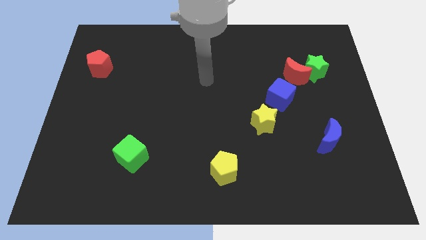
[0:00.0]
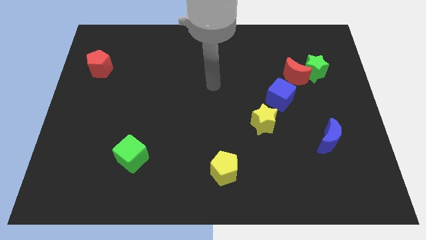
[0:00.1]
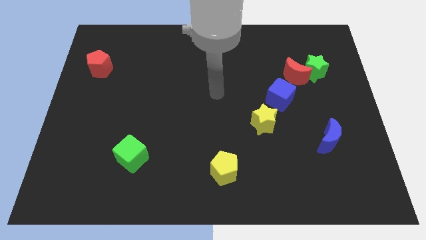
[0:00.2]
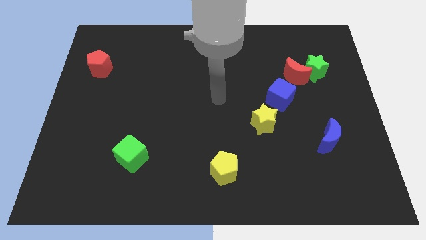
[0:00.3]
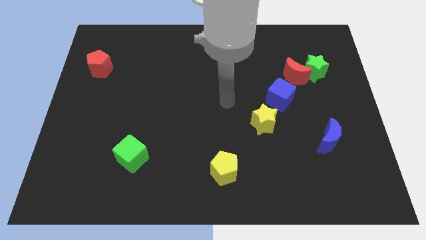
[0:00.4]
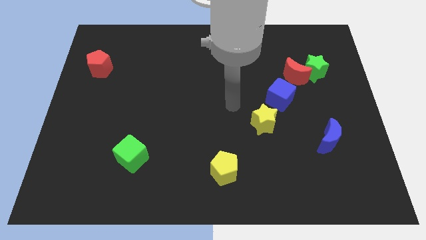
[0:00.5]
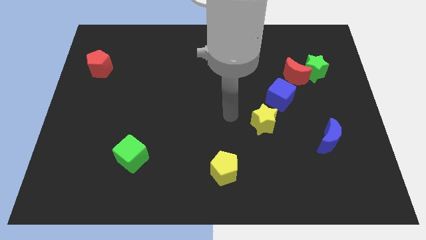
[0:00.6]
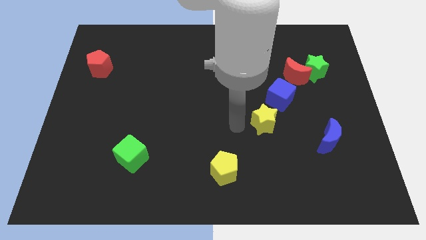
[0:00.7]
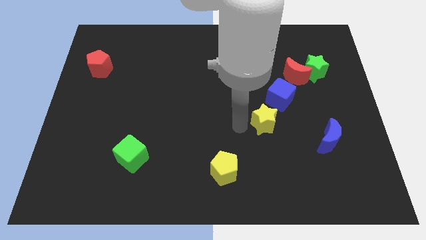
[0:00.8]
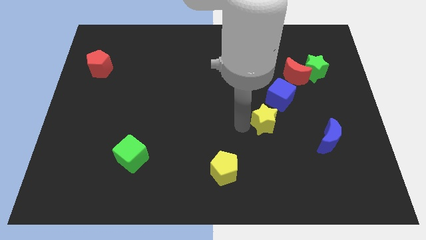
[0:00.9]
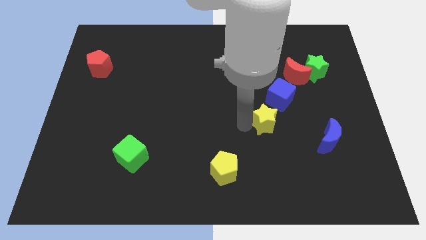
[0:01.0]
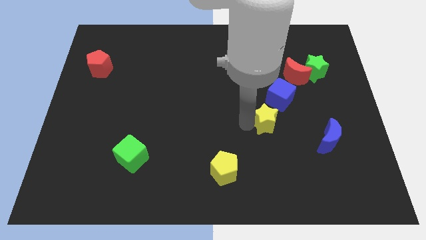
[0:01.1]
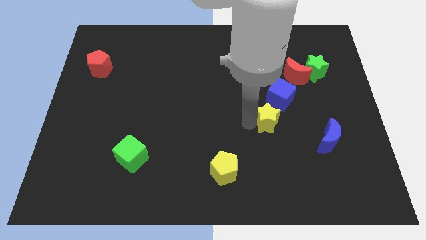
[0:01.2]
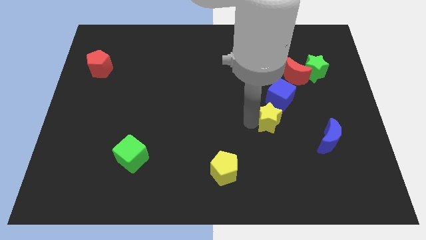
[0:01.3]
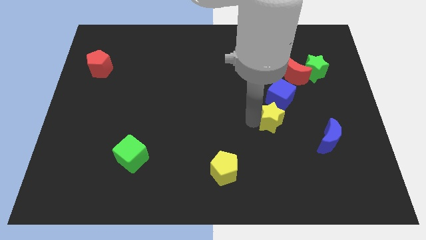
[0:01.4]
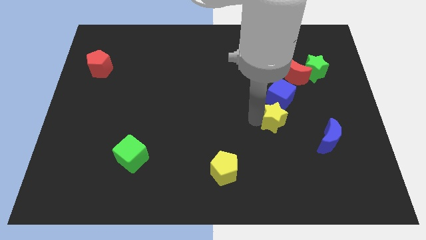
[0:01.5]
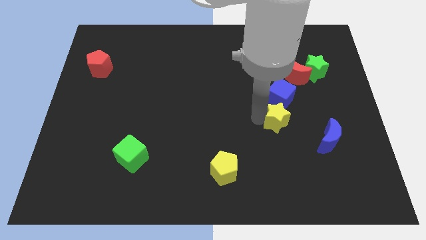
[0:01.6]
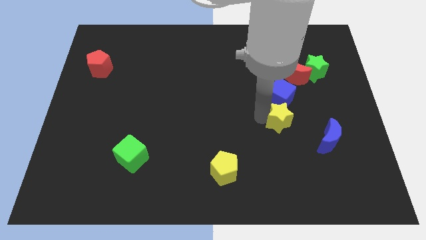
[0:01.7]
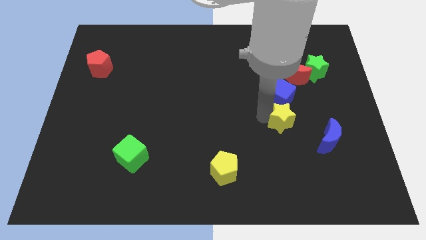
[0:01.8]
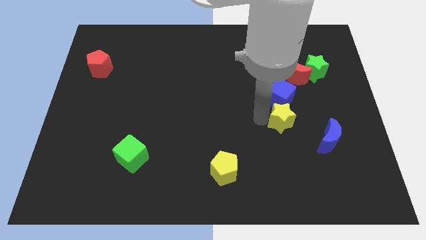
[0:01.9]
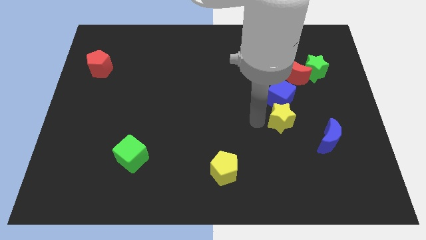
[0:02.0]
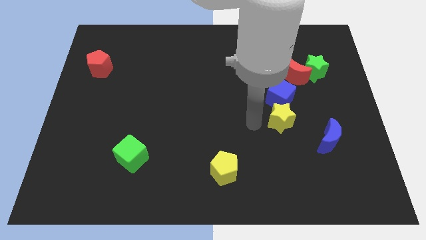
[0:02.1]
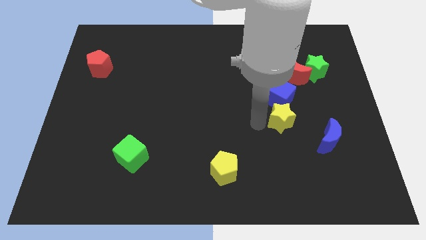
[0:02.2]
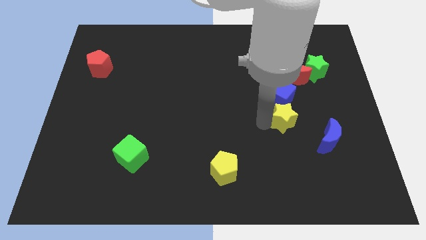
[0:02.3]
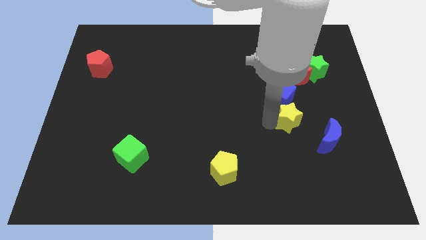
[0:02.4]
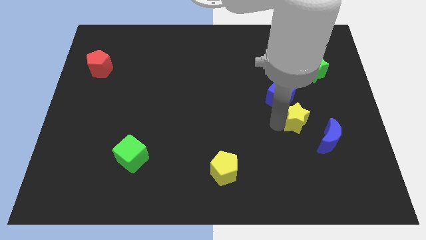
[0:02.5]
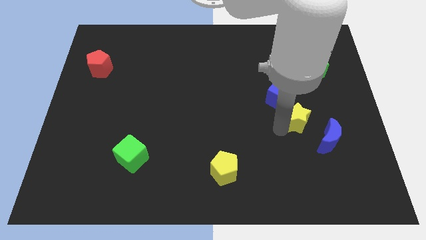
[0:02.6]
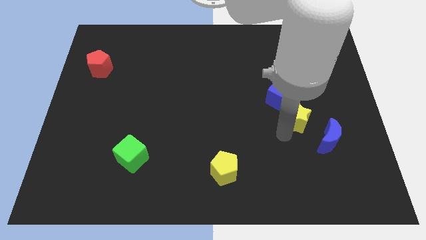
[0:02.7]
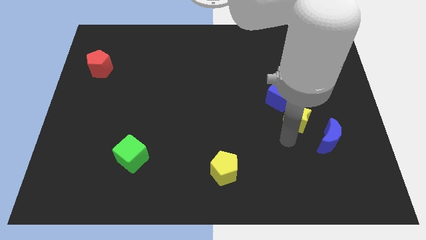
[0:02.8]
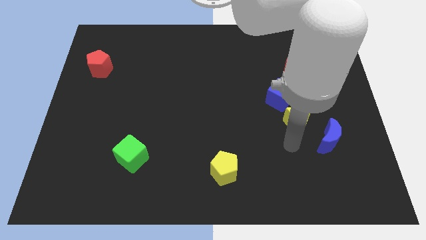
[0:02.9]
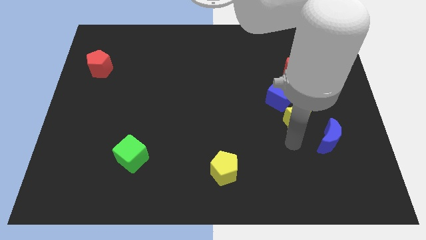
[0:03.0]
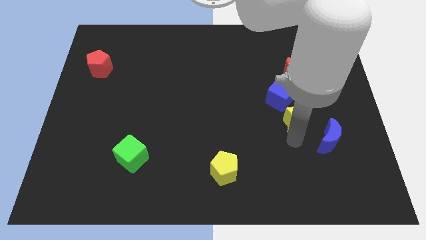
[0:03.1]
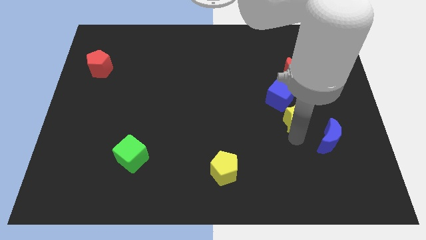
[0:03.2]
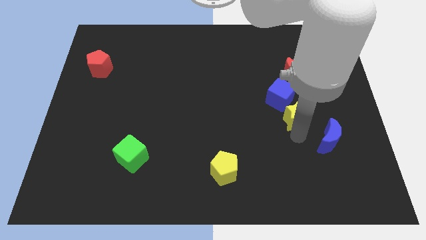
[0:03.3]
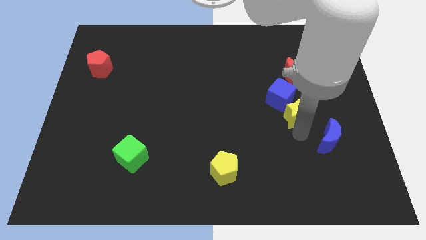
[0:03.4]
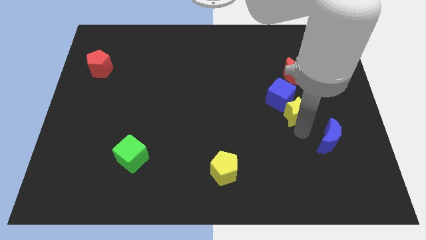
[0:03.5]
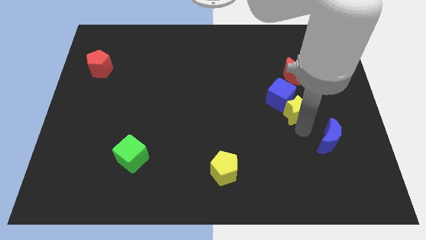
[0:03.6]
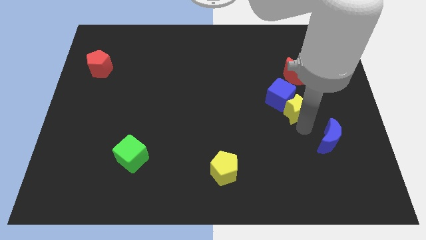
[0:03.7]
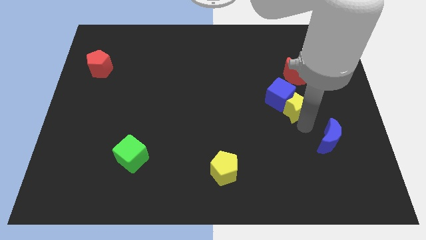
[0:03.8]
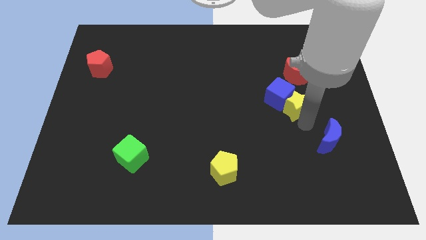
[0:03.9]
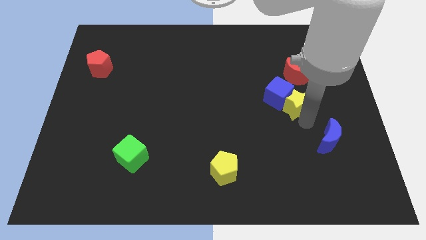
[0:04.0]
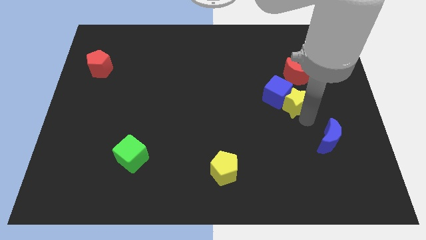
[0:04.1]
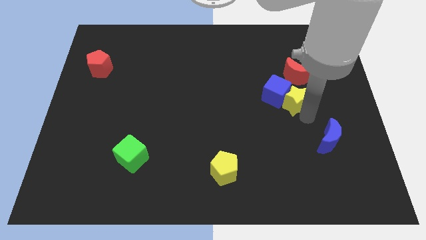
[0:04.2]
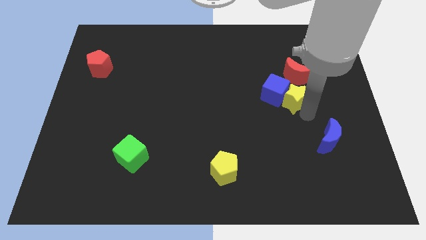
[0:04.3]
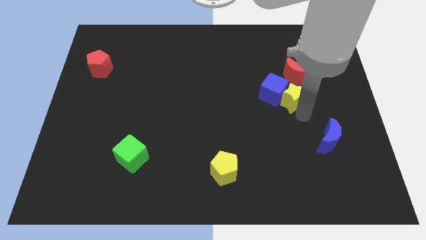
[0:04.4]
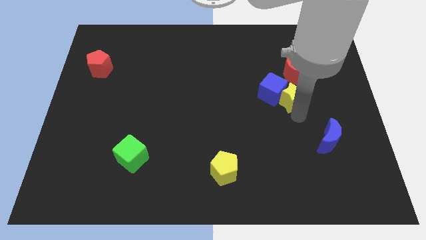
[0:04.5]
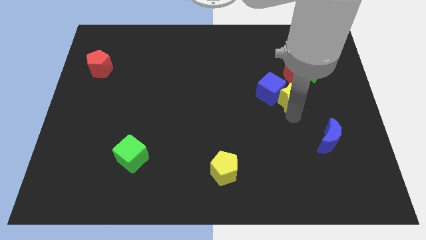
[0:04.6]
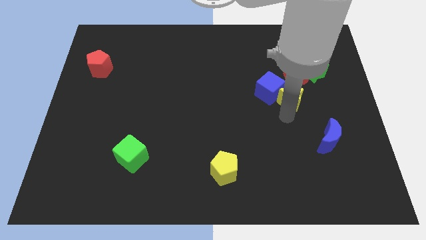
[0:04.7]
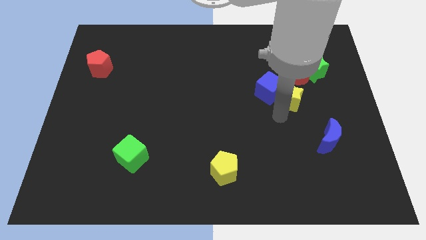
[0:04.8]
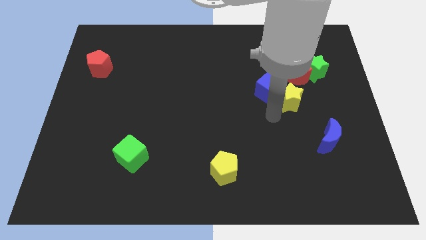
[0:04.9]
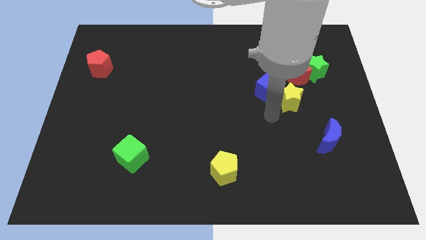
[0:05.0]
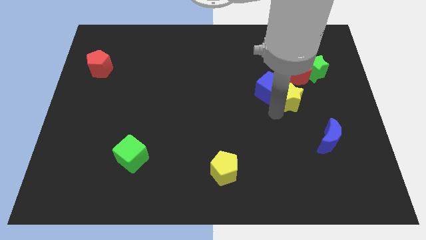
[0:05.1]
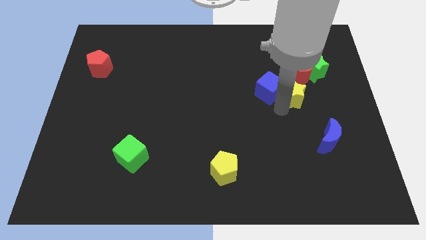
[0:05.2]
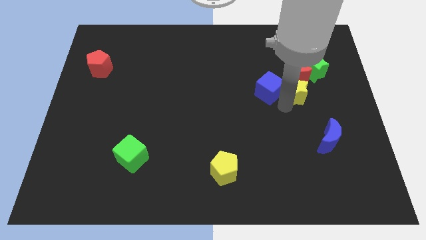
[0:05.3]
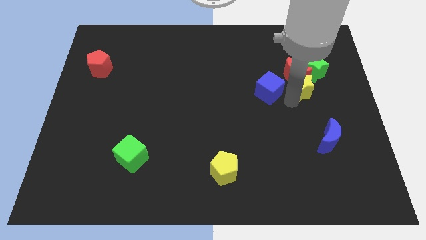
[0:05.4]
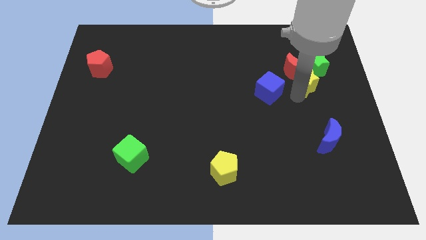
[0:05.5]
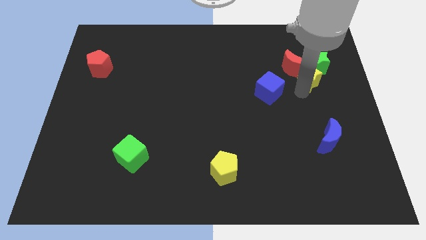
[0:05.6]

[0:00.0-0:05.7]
put the yellow star next to the green star

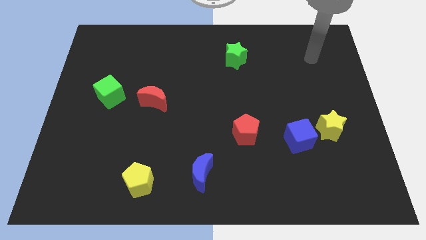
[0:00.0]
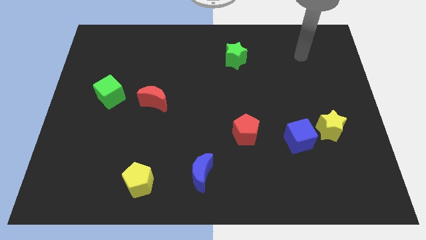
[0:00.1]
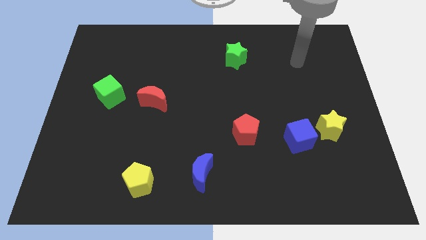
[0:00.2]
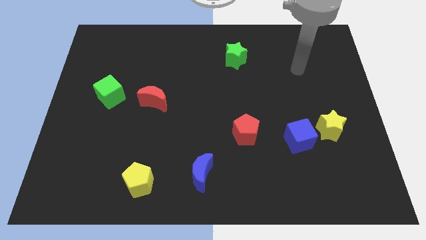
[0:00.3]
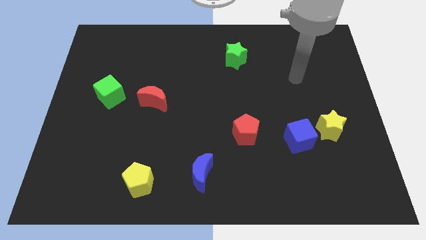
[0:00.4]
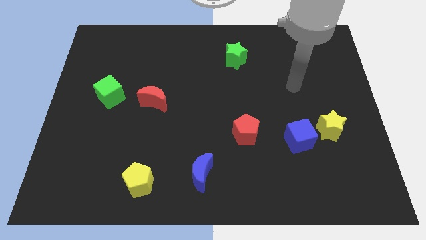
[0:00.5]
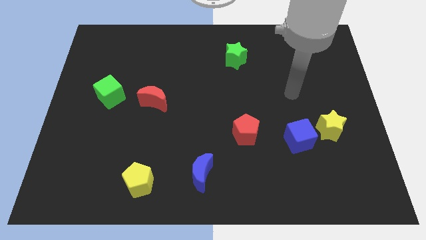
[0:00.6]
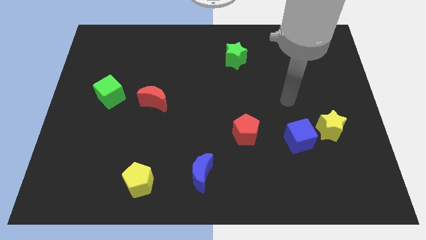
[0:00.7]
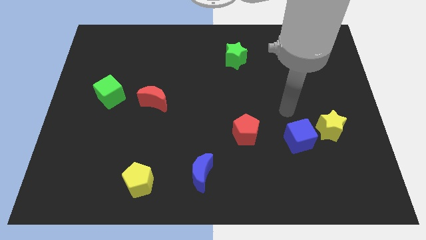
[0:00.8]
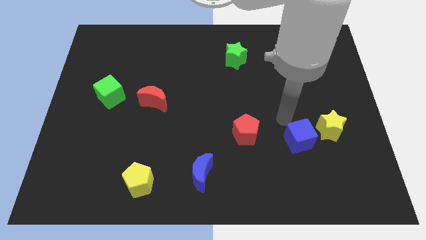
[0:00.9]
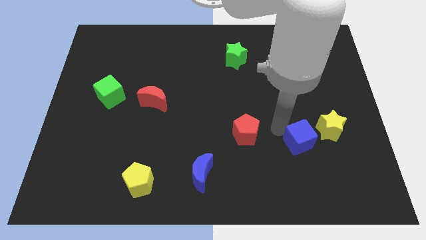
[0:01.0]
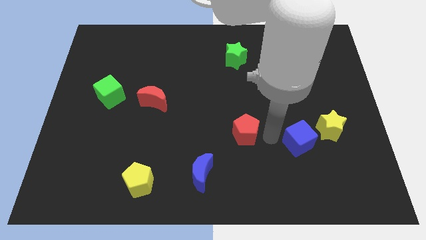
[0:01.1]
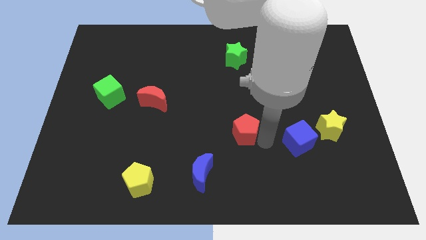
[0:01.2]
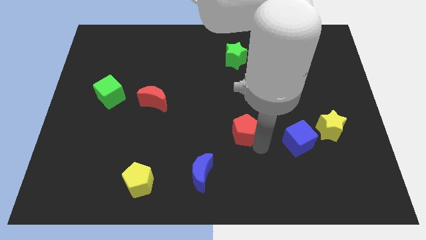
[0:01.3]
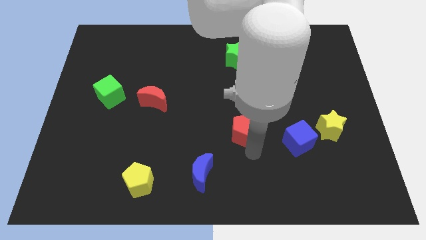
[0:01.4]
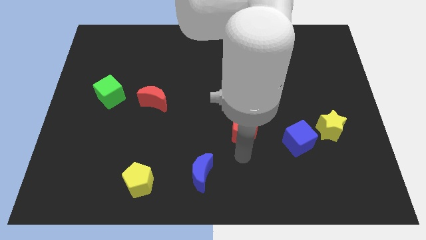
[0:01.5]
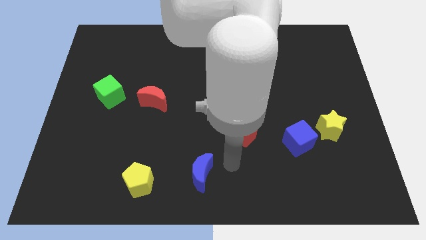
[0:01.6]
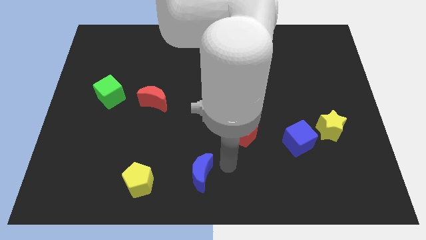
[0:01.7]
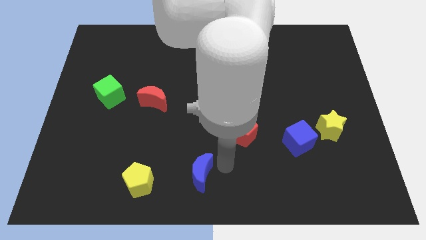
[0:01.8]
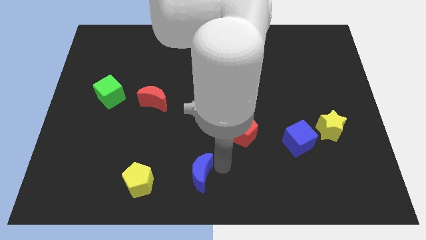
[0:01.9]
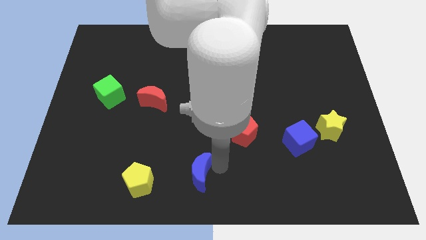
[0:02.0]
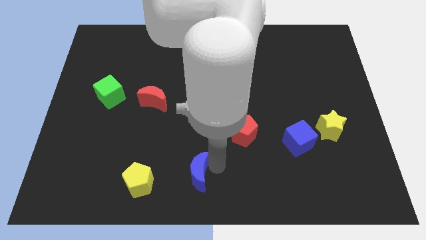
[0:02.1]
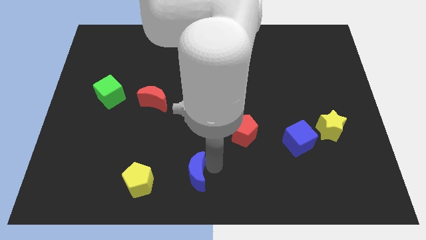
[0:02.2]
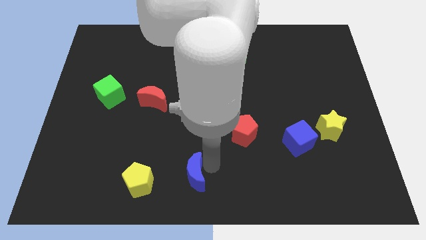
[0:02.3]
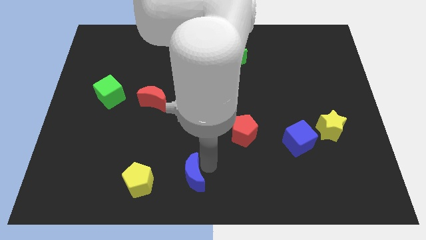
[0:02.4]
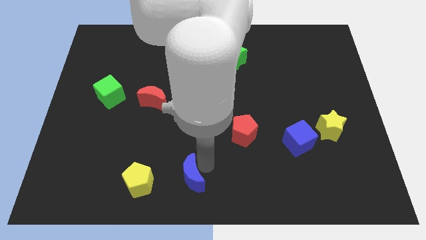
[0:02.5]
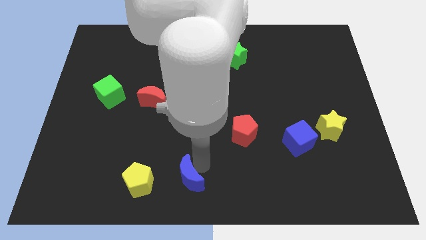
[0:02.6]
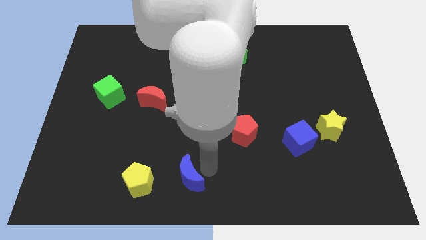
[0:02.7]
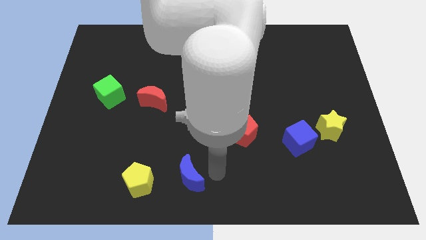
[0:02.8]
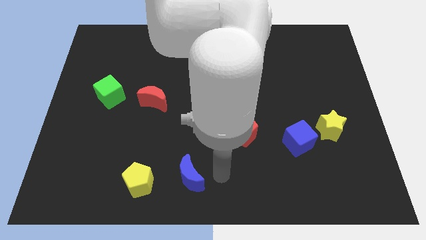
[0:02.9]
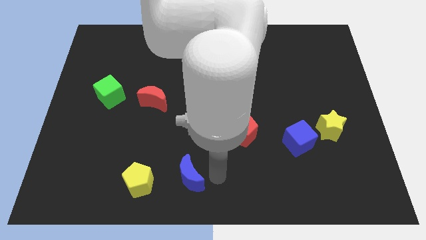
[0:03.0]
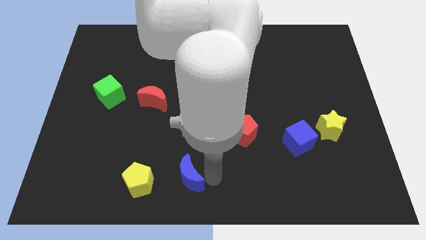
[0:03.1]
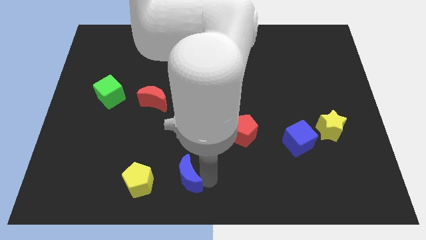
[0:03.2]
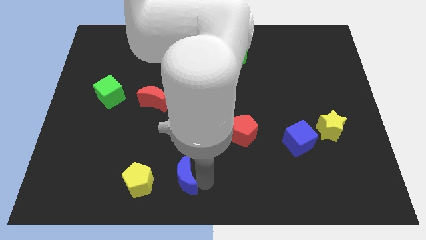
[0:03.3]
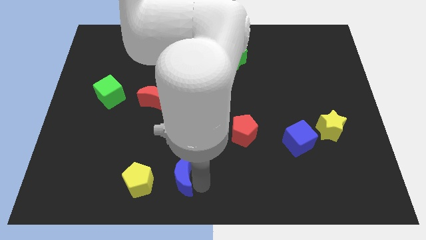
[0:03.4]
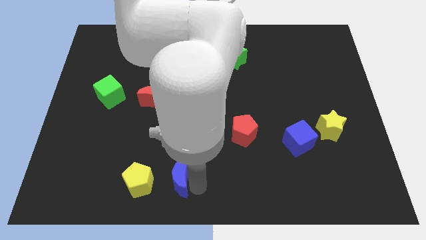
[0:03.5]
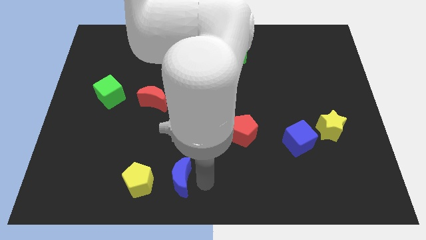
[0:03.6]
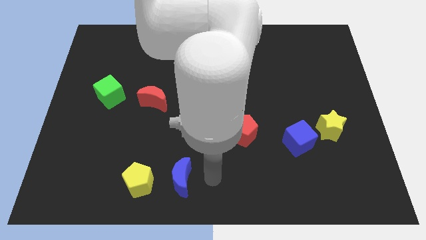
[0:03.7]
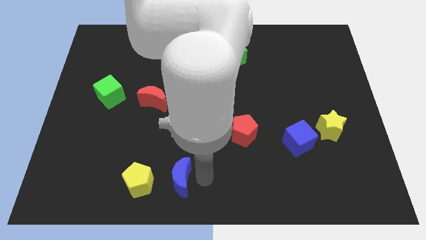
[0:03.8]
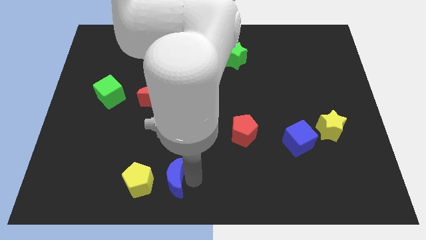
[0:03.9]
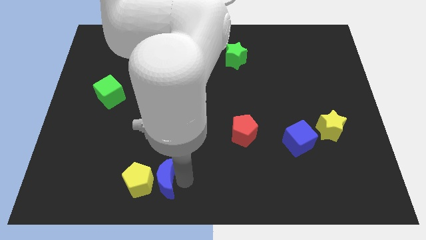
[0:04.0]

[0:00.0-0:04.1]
move the blue moon to the yellow pentagon
